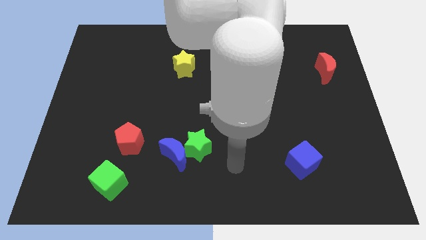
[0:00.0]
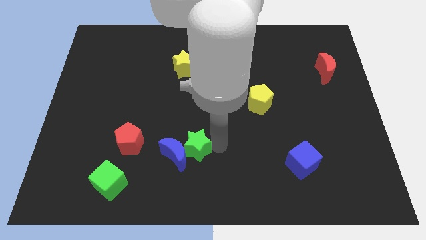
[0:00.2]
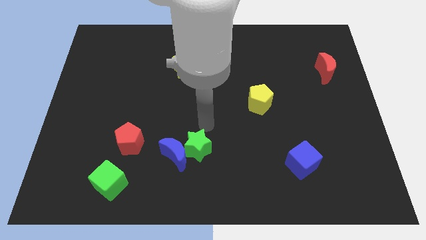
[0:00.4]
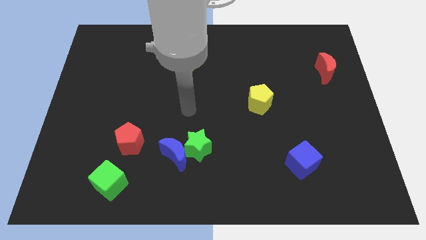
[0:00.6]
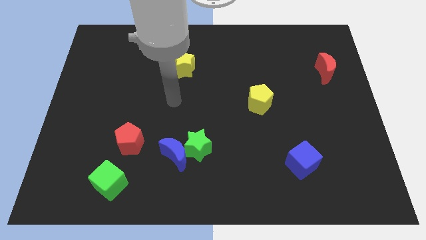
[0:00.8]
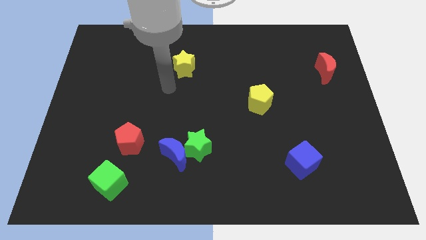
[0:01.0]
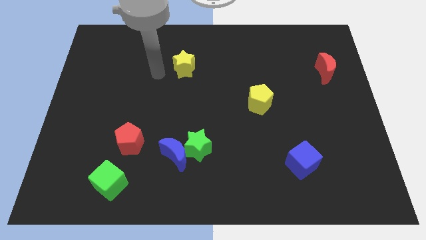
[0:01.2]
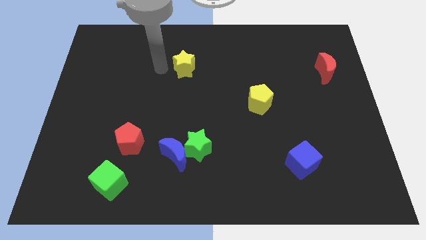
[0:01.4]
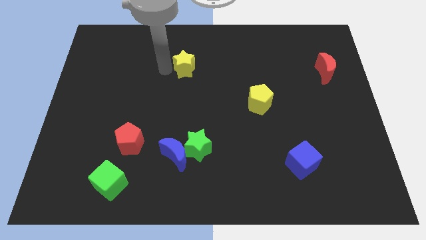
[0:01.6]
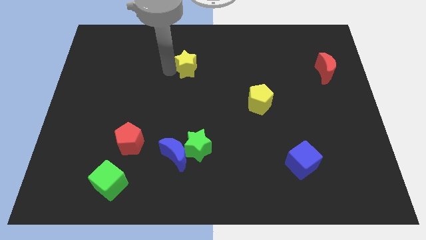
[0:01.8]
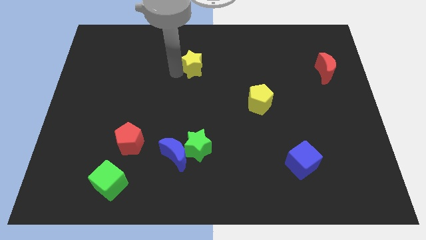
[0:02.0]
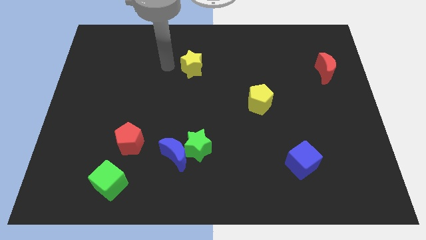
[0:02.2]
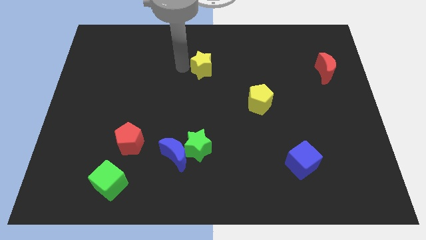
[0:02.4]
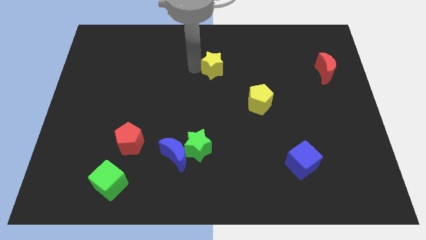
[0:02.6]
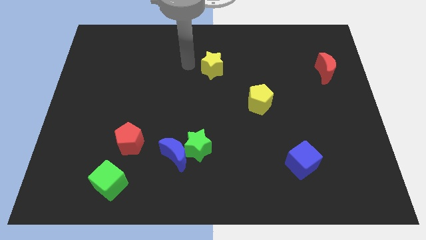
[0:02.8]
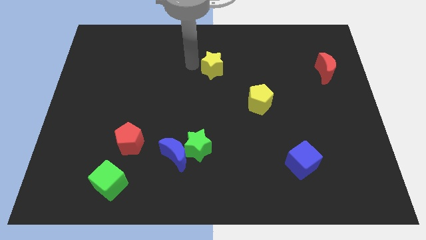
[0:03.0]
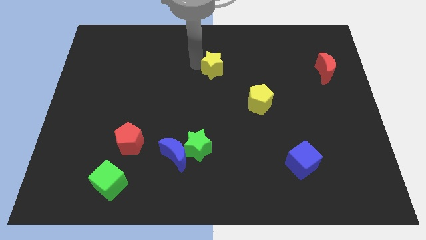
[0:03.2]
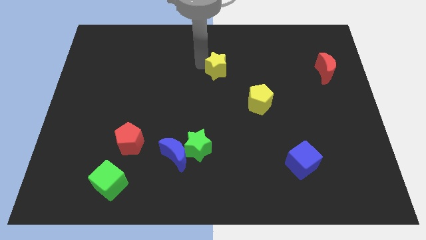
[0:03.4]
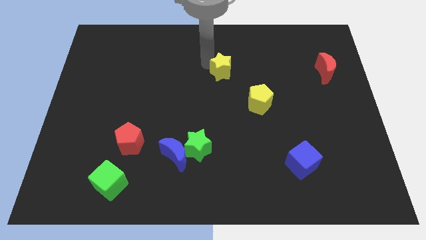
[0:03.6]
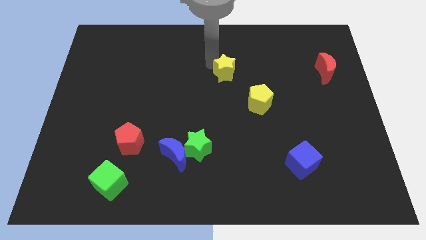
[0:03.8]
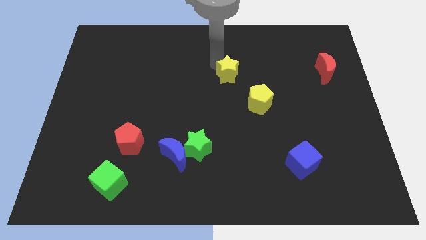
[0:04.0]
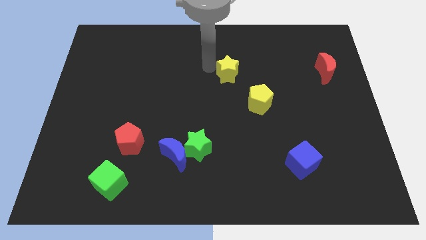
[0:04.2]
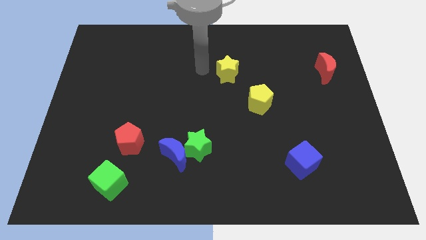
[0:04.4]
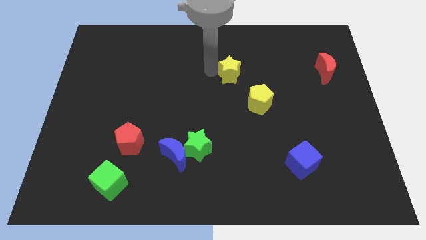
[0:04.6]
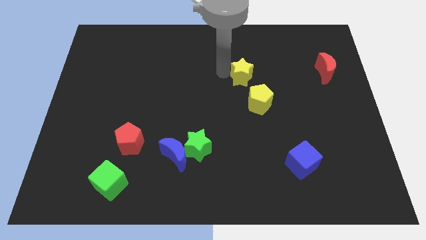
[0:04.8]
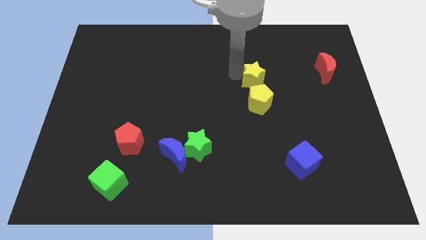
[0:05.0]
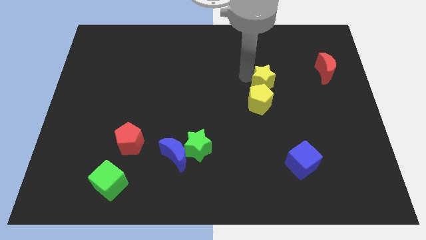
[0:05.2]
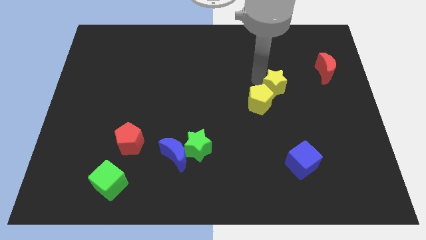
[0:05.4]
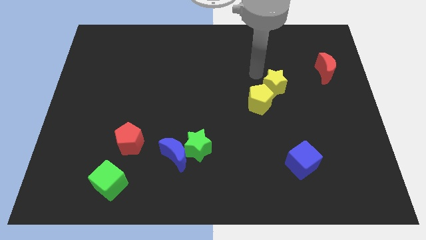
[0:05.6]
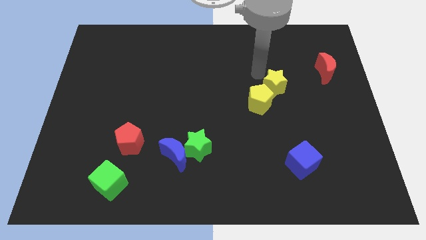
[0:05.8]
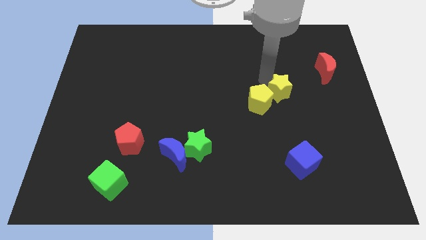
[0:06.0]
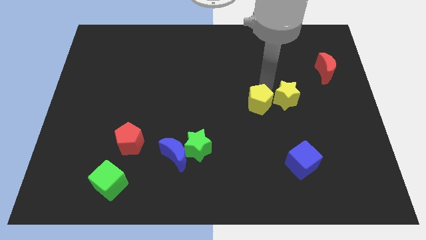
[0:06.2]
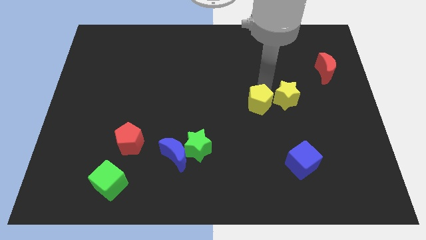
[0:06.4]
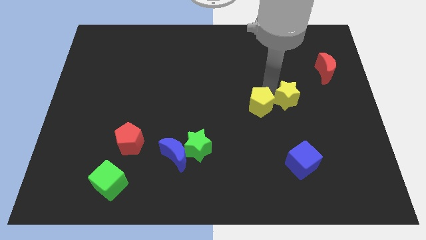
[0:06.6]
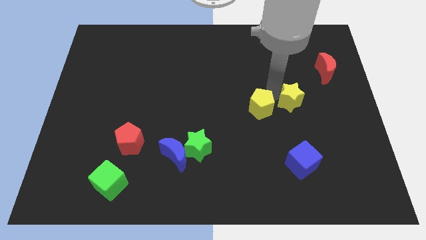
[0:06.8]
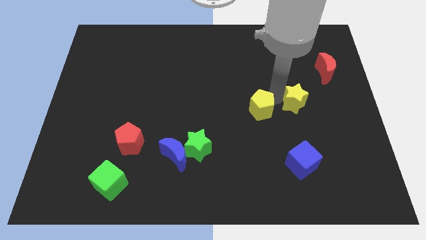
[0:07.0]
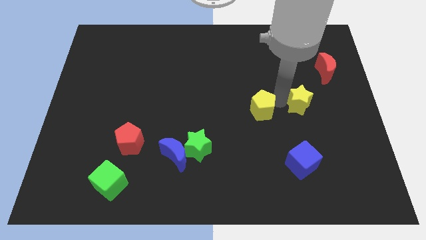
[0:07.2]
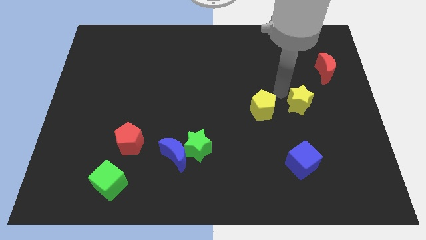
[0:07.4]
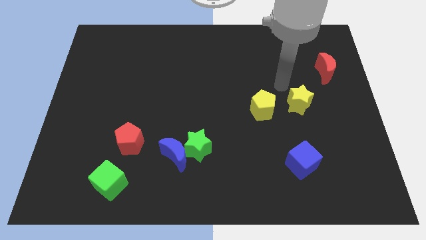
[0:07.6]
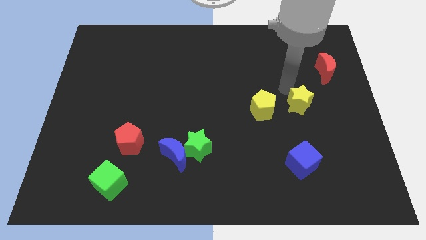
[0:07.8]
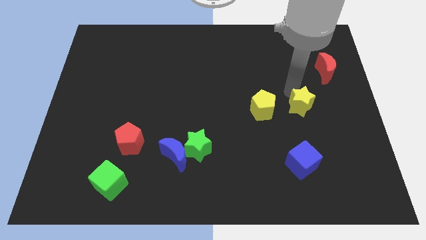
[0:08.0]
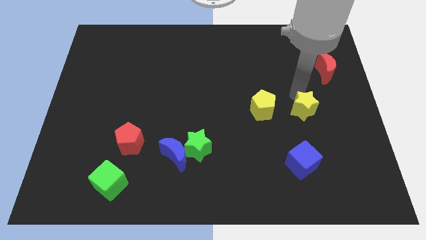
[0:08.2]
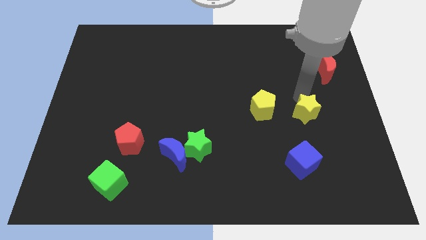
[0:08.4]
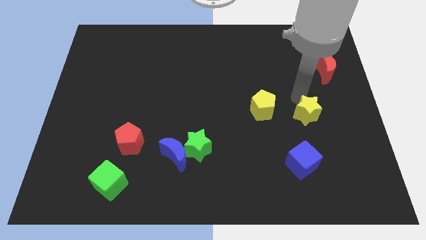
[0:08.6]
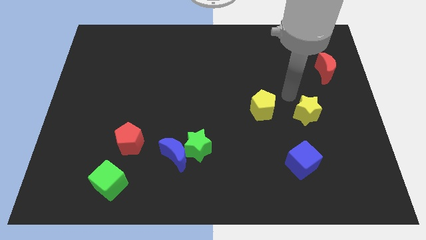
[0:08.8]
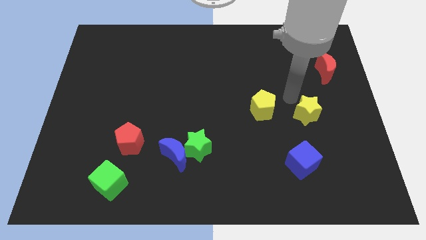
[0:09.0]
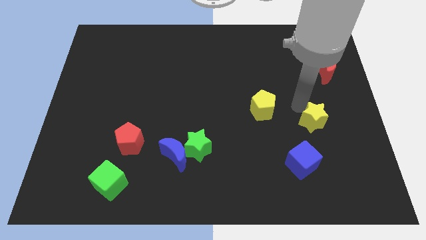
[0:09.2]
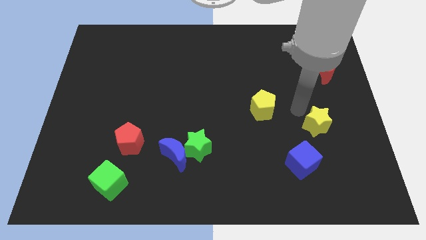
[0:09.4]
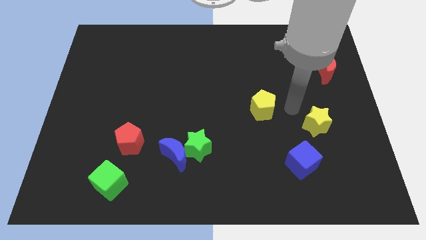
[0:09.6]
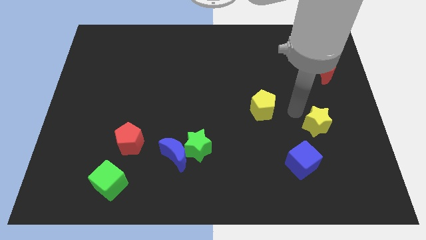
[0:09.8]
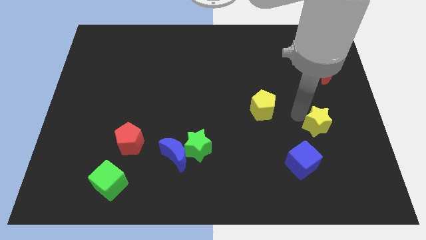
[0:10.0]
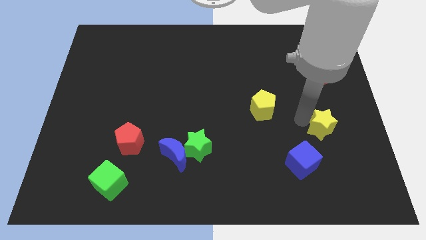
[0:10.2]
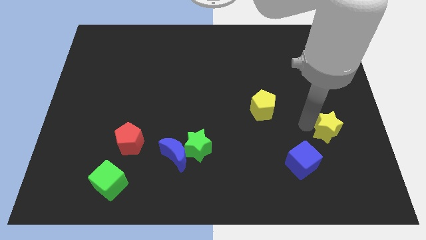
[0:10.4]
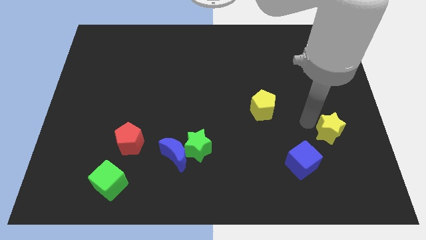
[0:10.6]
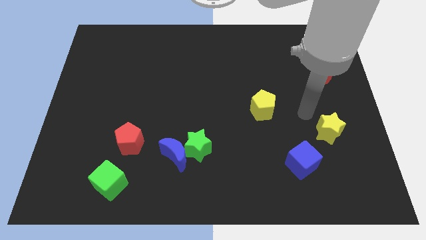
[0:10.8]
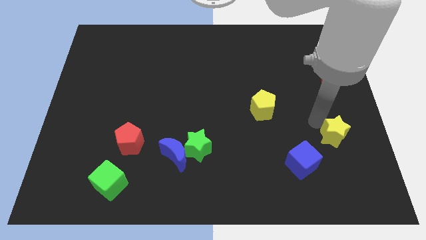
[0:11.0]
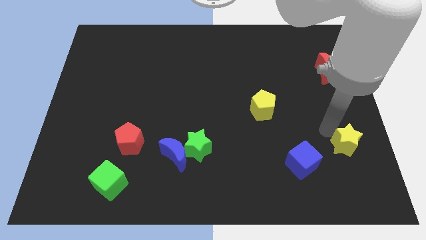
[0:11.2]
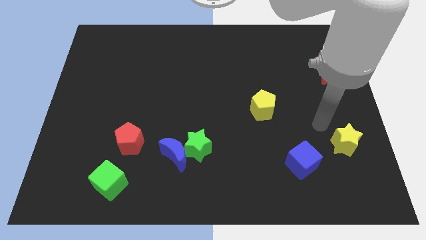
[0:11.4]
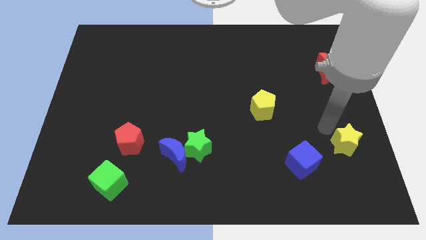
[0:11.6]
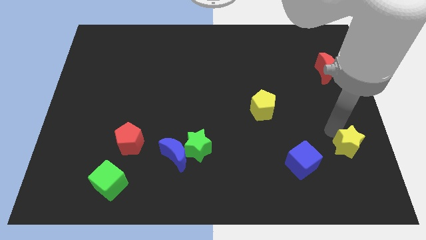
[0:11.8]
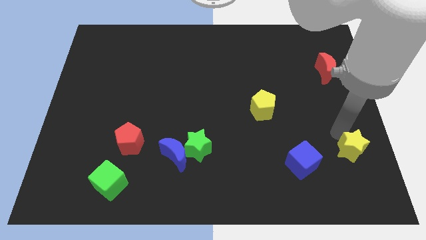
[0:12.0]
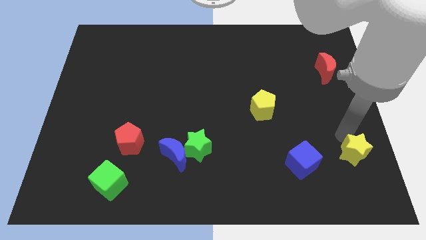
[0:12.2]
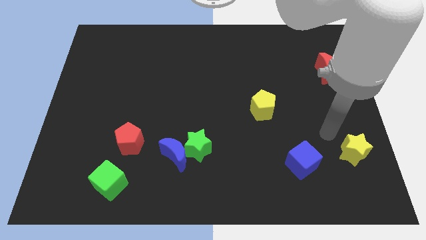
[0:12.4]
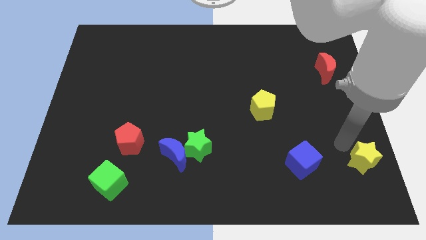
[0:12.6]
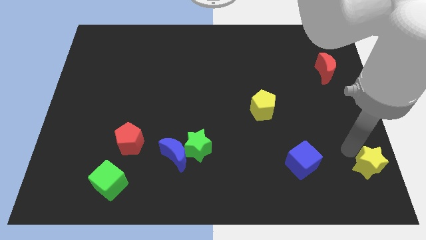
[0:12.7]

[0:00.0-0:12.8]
put the yellow star to the bottom right corner

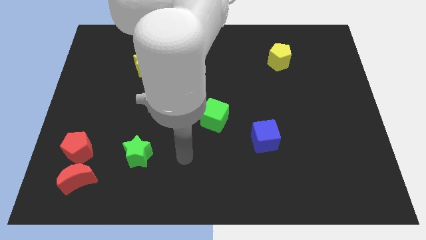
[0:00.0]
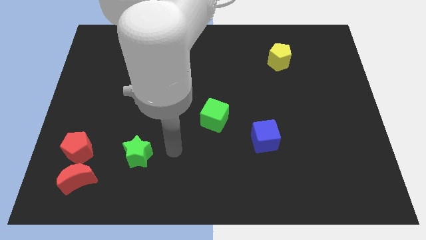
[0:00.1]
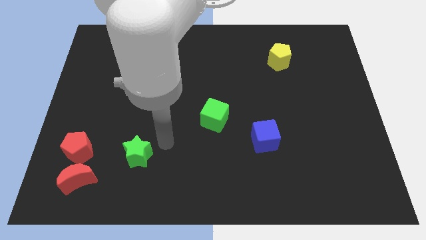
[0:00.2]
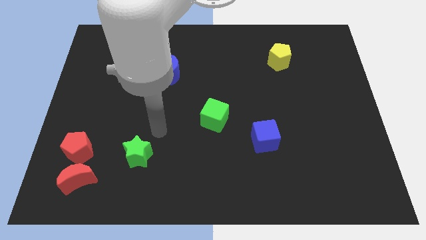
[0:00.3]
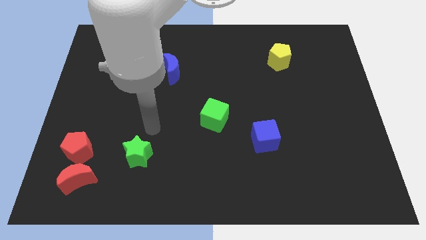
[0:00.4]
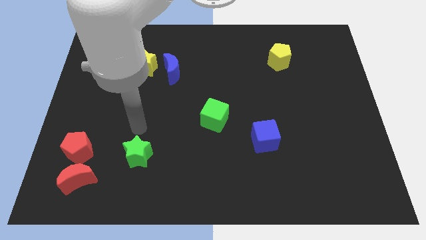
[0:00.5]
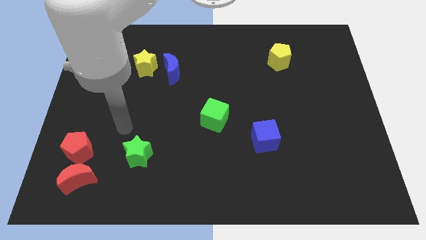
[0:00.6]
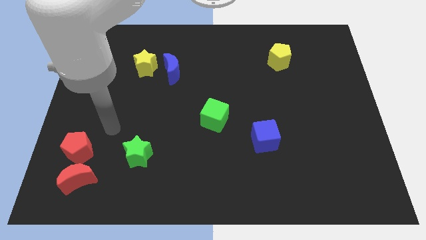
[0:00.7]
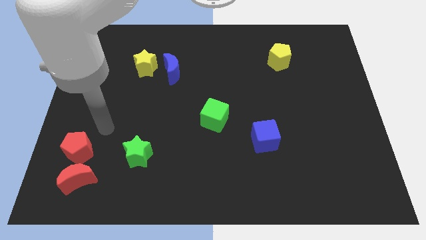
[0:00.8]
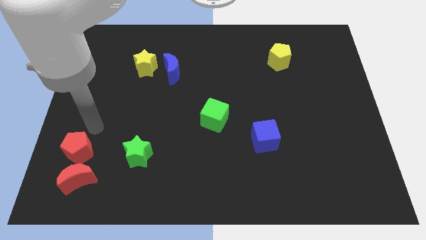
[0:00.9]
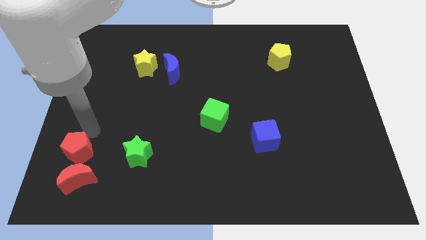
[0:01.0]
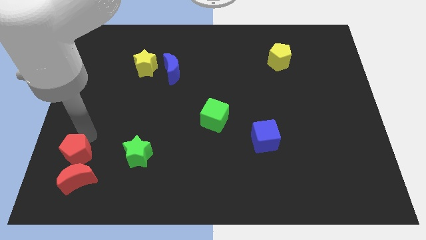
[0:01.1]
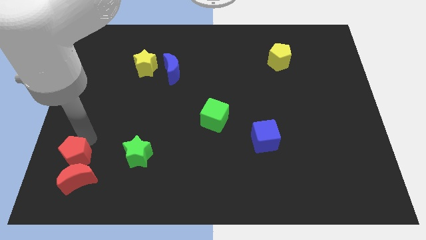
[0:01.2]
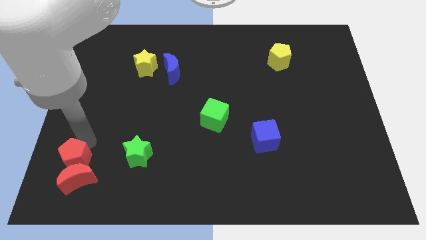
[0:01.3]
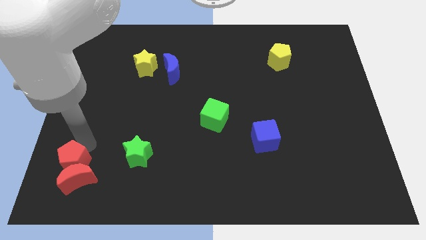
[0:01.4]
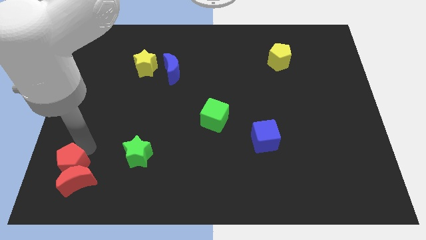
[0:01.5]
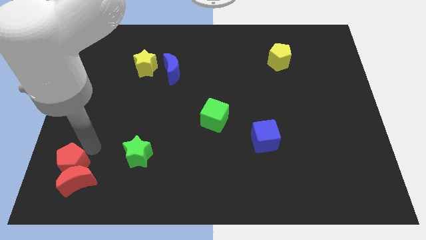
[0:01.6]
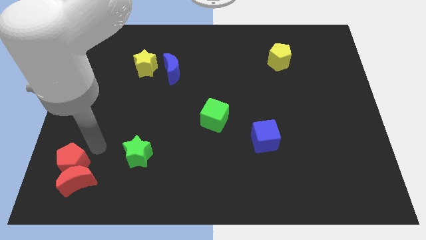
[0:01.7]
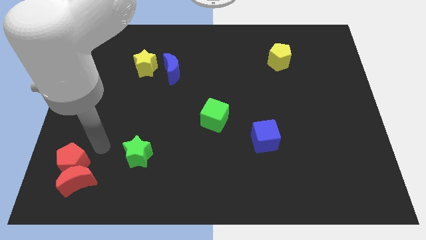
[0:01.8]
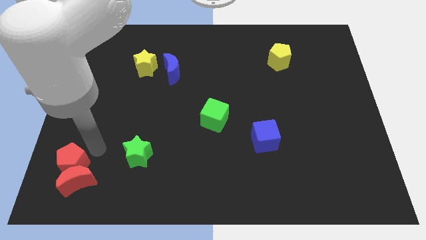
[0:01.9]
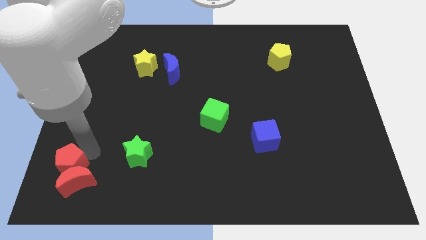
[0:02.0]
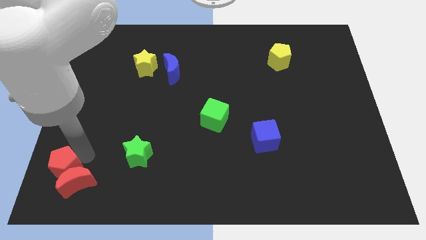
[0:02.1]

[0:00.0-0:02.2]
move the red pentagon to the bottom left corner
